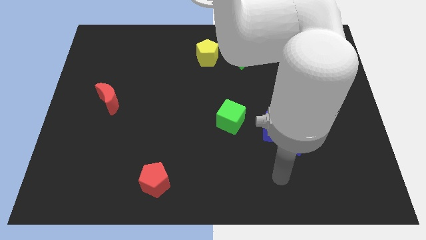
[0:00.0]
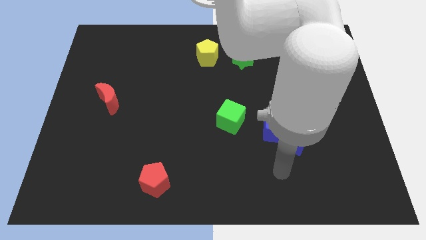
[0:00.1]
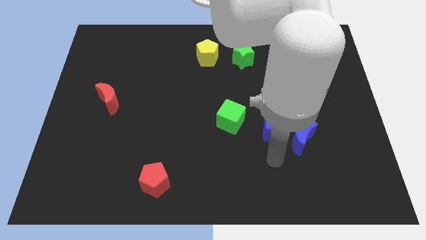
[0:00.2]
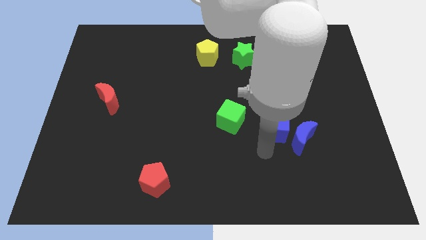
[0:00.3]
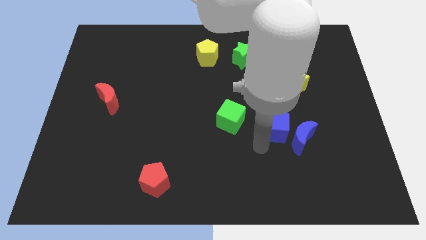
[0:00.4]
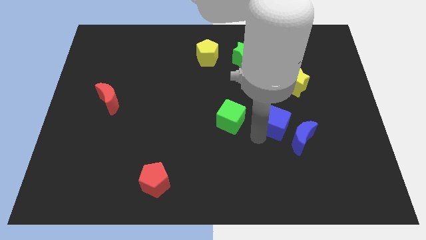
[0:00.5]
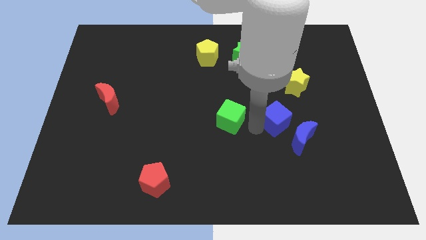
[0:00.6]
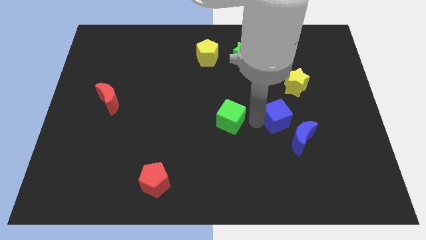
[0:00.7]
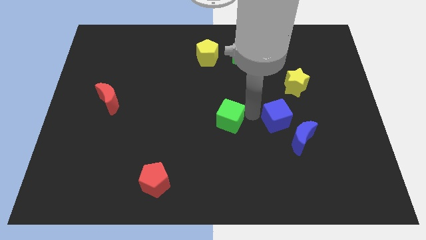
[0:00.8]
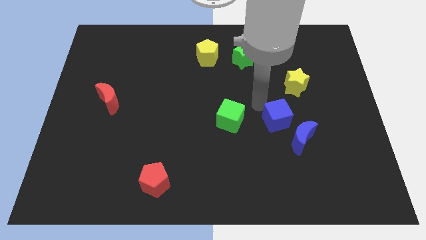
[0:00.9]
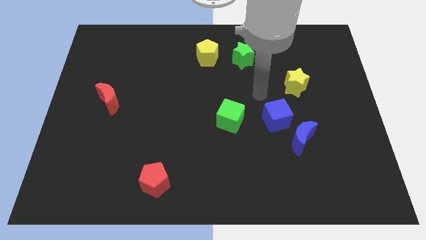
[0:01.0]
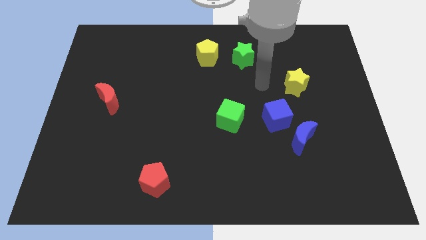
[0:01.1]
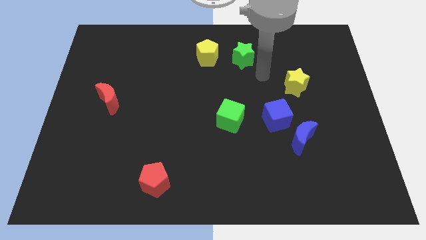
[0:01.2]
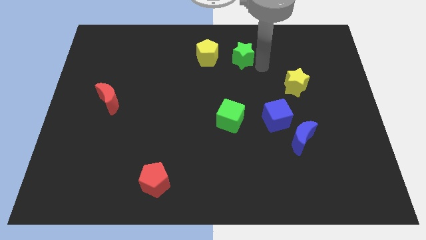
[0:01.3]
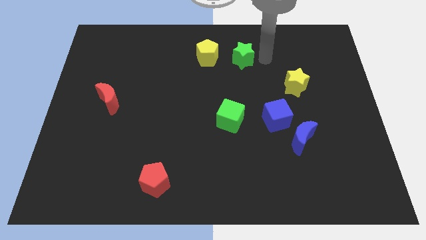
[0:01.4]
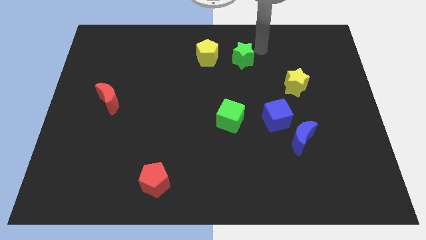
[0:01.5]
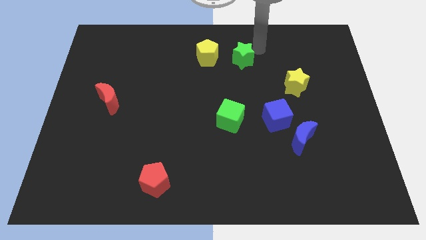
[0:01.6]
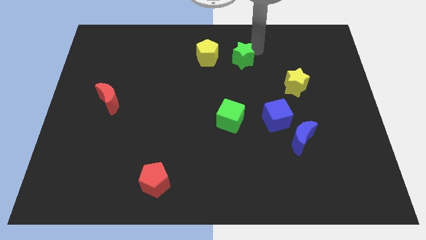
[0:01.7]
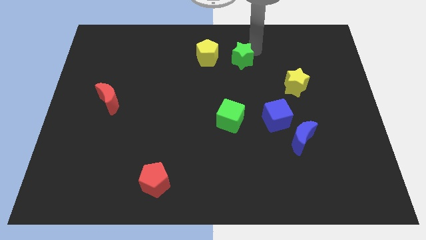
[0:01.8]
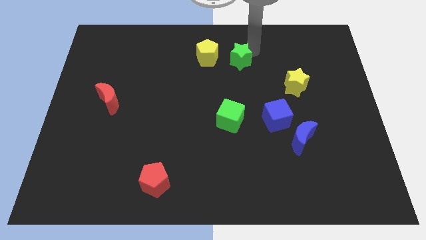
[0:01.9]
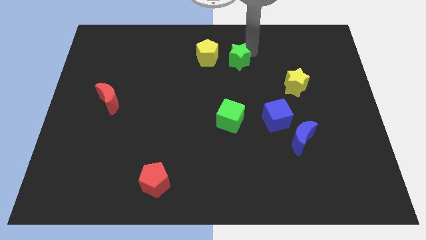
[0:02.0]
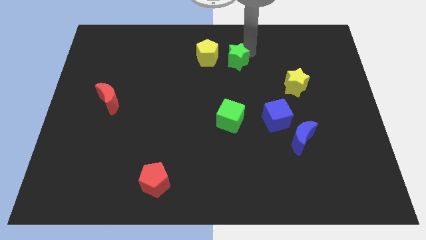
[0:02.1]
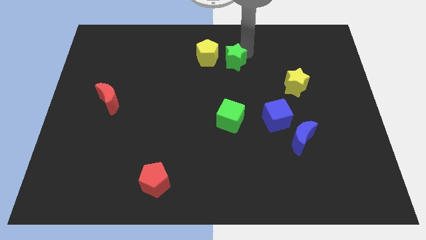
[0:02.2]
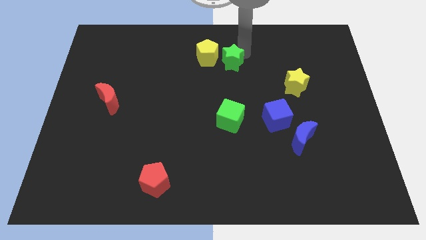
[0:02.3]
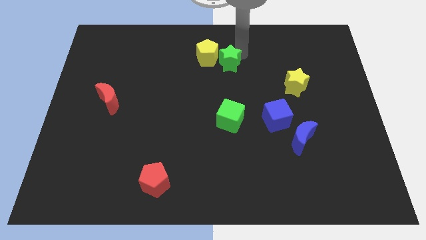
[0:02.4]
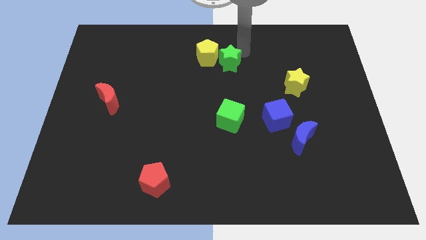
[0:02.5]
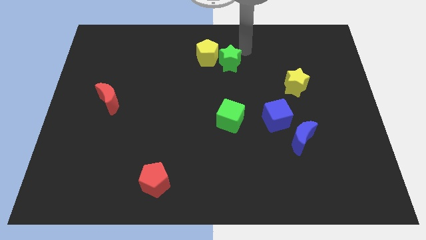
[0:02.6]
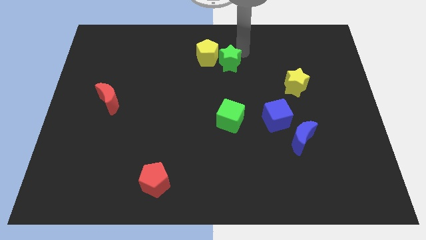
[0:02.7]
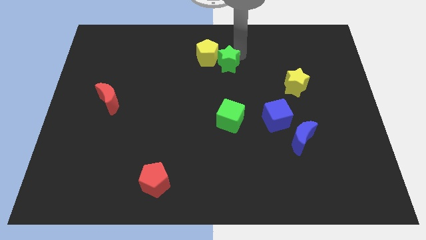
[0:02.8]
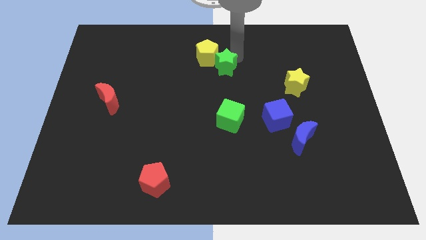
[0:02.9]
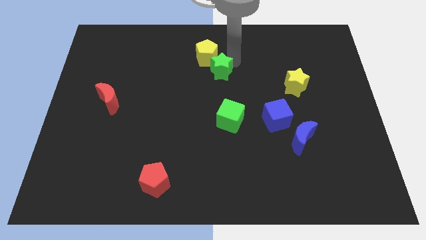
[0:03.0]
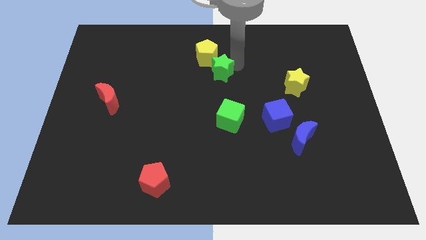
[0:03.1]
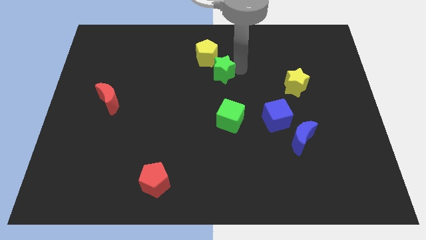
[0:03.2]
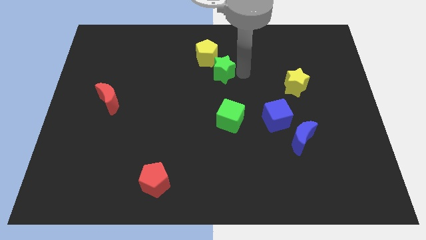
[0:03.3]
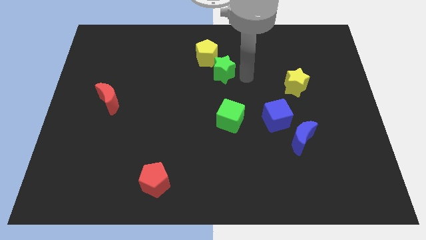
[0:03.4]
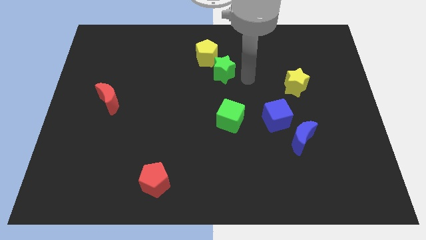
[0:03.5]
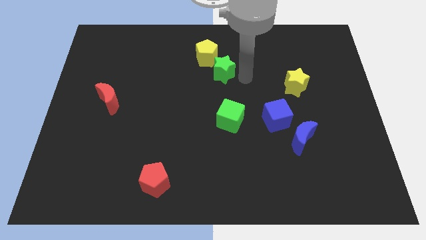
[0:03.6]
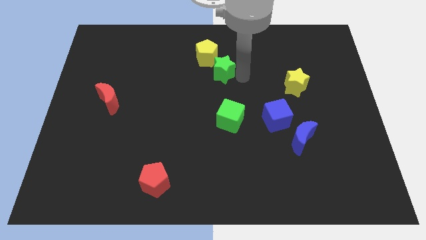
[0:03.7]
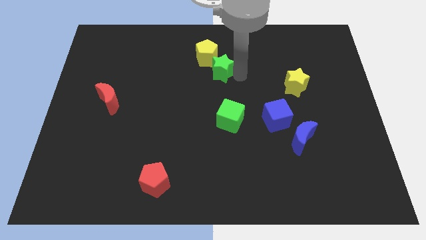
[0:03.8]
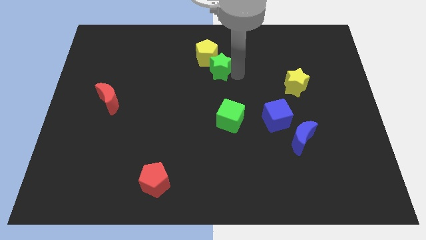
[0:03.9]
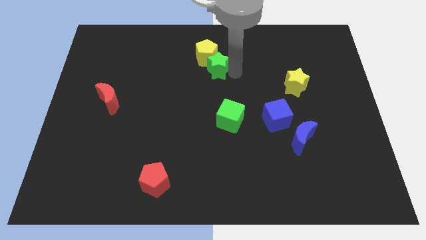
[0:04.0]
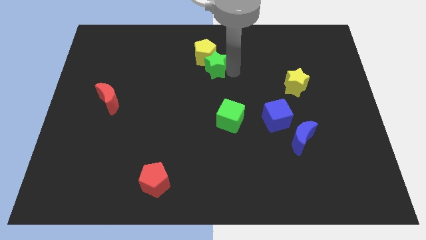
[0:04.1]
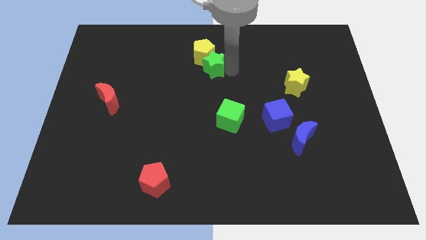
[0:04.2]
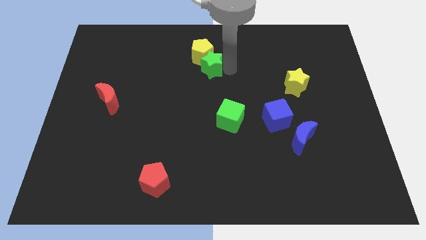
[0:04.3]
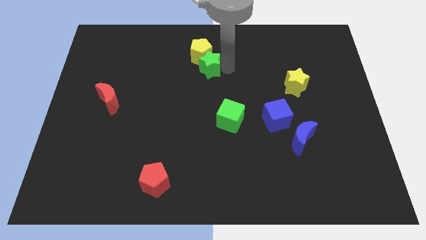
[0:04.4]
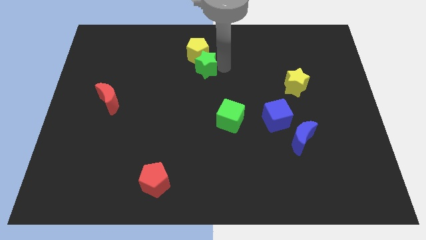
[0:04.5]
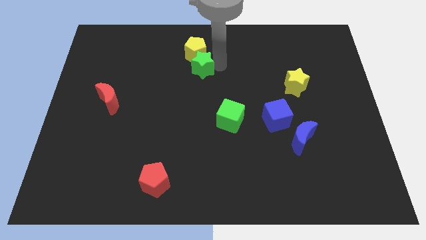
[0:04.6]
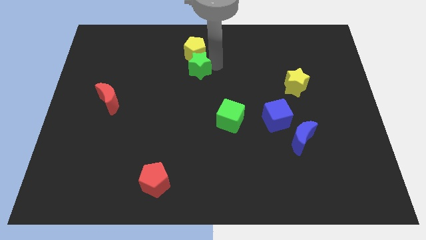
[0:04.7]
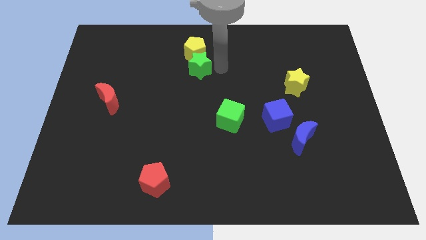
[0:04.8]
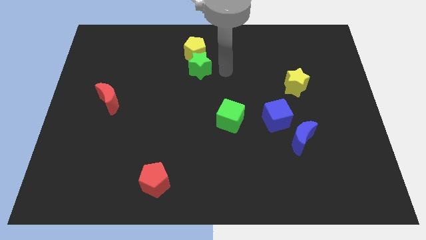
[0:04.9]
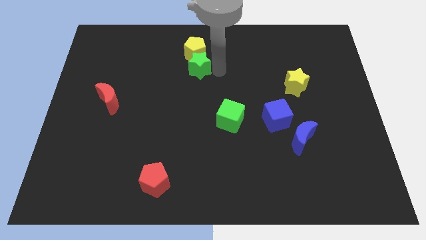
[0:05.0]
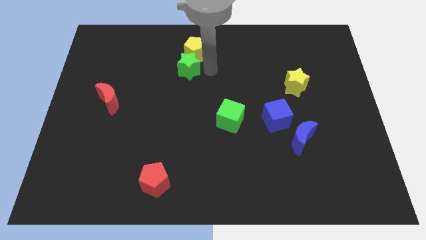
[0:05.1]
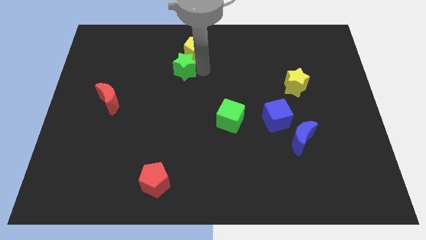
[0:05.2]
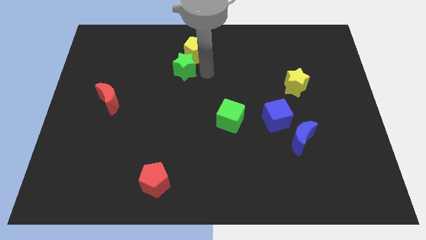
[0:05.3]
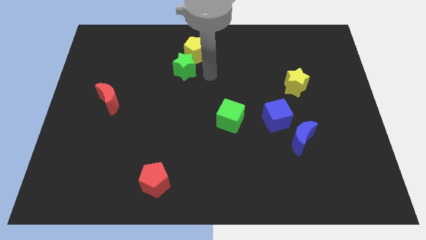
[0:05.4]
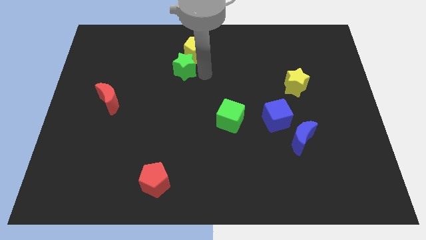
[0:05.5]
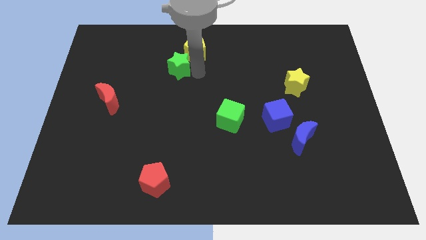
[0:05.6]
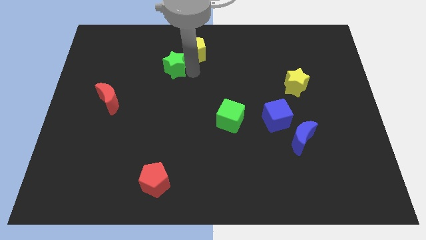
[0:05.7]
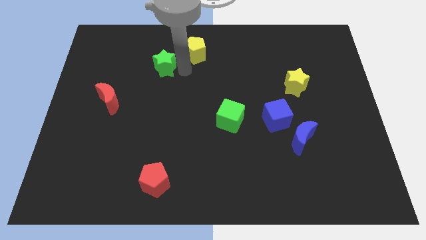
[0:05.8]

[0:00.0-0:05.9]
move the green star left

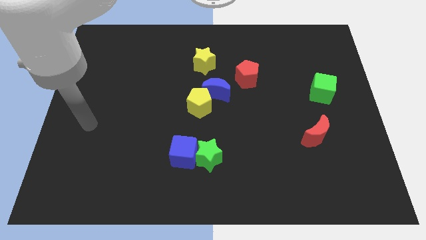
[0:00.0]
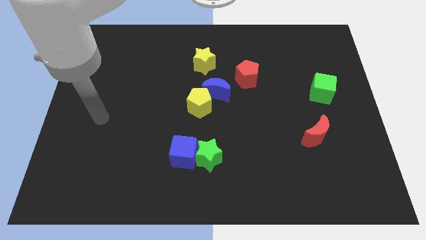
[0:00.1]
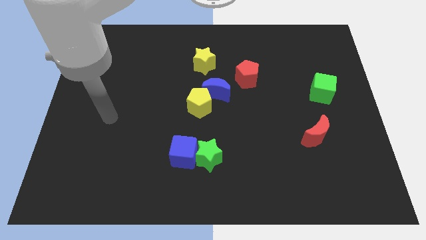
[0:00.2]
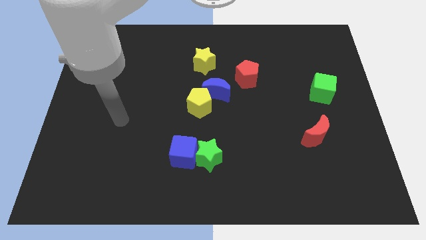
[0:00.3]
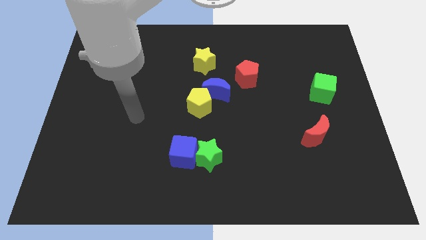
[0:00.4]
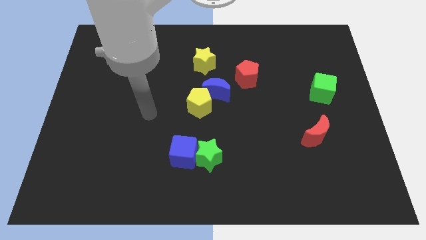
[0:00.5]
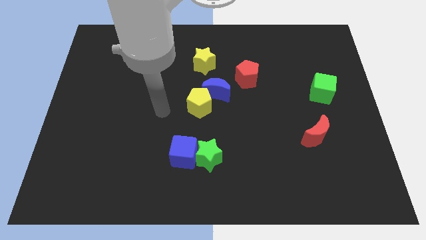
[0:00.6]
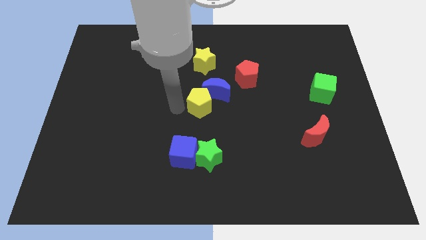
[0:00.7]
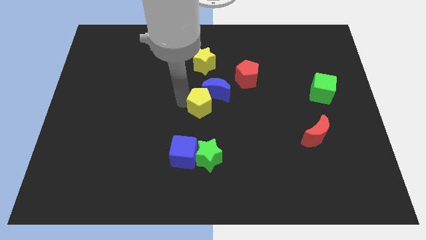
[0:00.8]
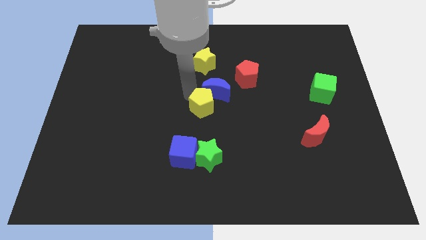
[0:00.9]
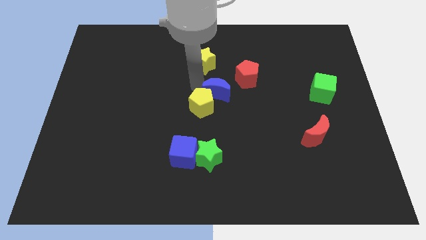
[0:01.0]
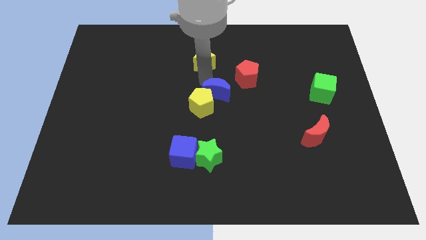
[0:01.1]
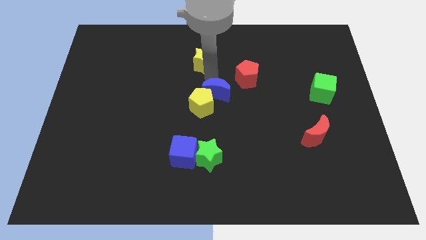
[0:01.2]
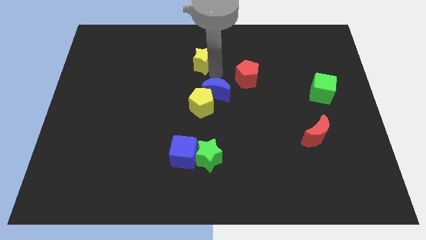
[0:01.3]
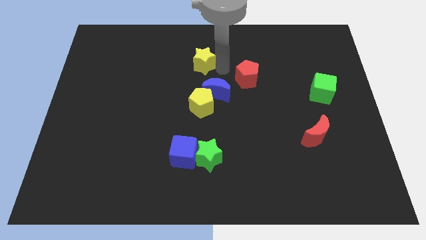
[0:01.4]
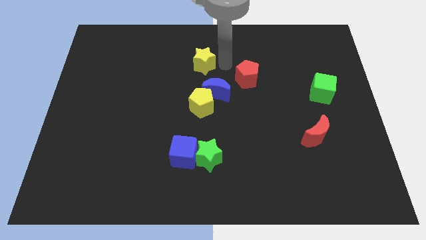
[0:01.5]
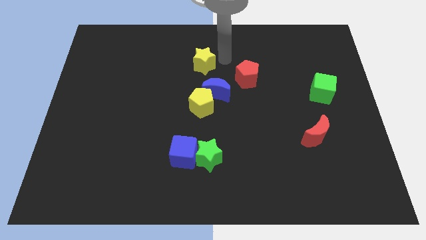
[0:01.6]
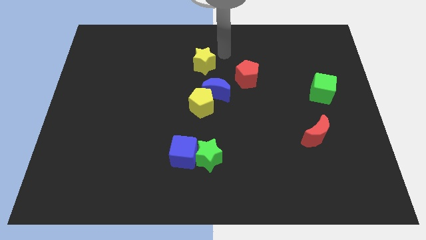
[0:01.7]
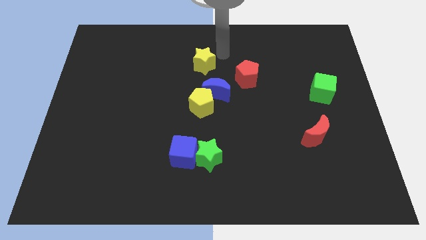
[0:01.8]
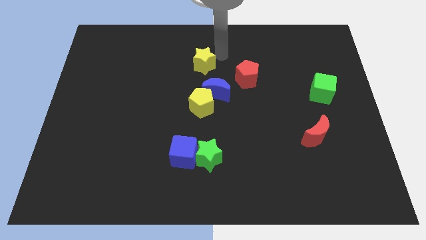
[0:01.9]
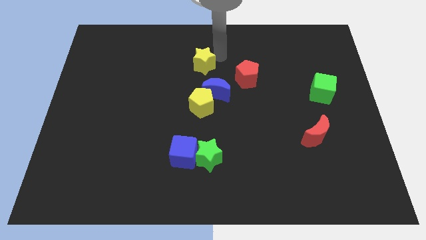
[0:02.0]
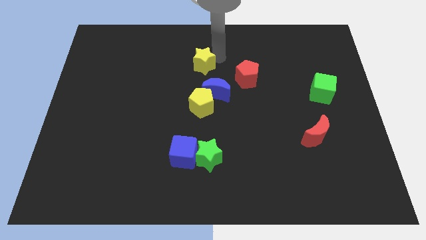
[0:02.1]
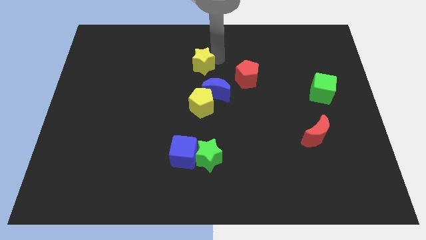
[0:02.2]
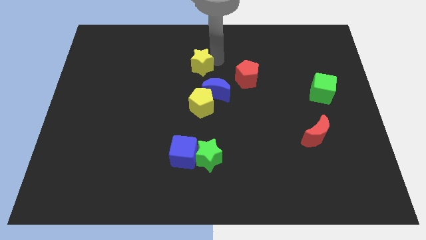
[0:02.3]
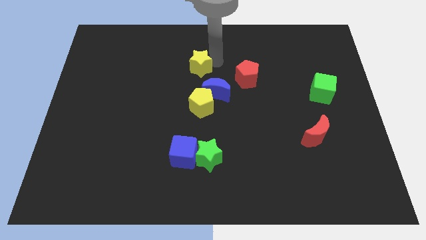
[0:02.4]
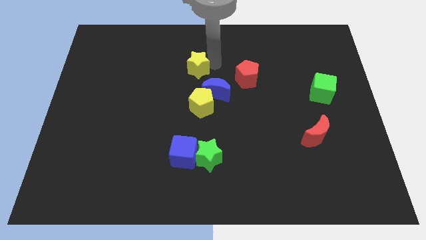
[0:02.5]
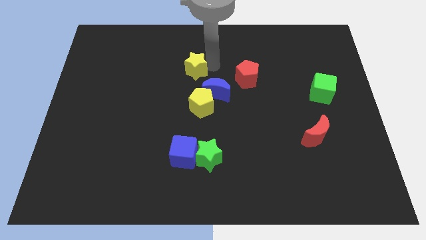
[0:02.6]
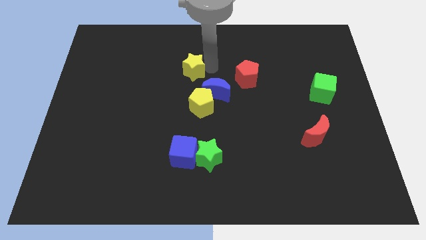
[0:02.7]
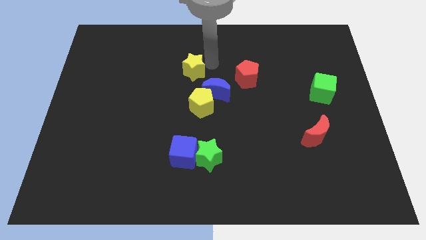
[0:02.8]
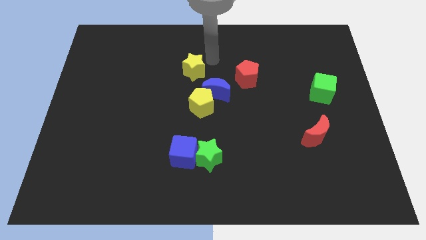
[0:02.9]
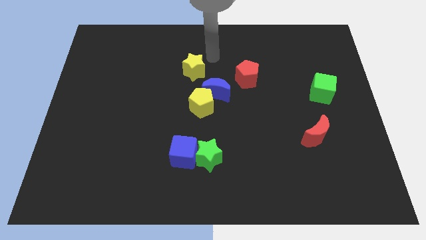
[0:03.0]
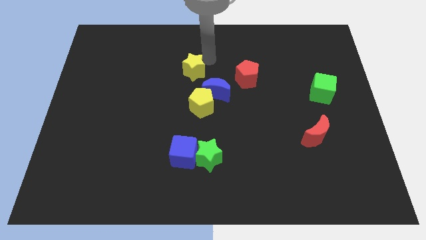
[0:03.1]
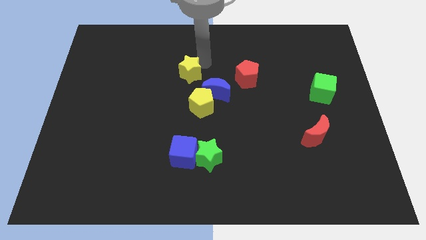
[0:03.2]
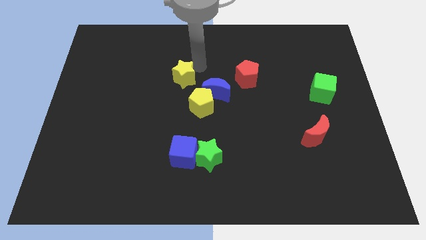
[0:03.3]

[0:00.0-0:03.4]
push the yellow star a little down and to the left diagonally
